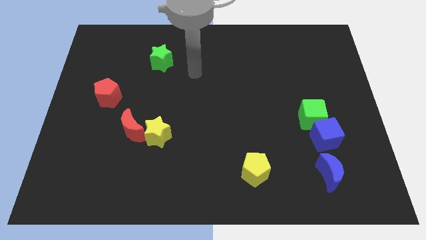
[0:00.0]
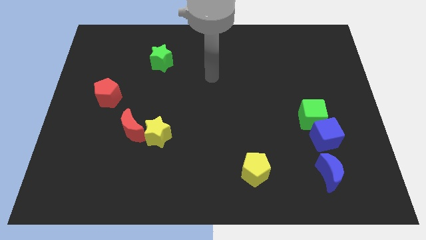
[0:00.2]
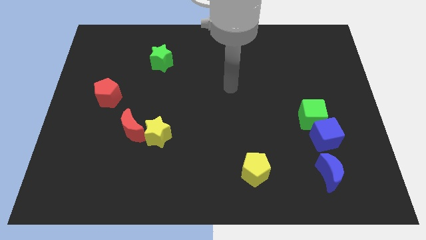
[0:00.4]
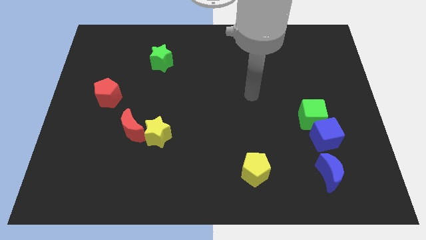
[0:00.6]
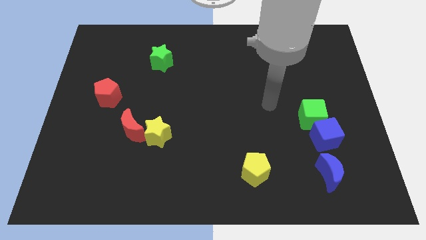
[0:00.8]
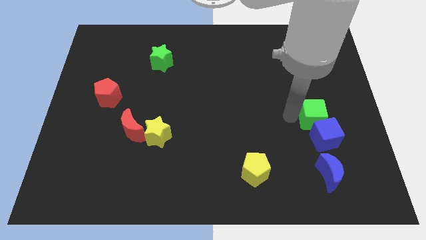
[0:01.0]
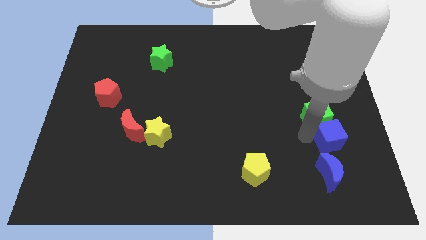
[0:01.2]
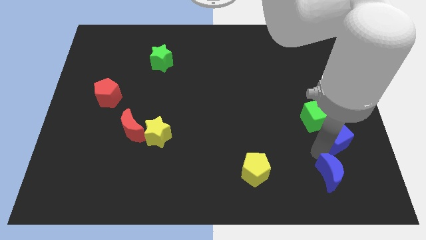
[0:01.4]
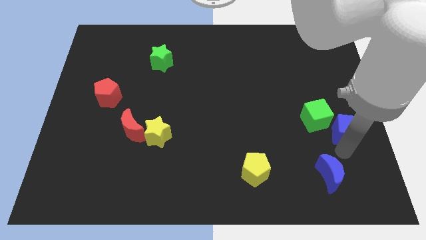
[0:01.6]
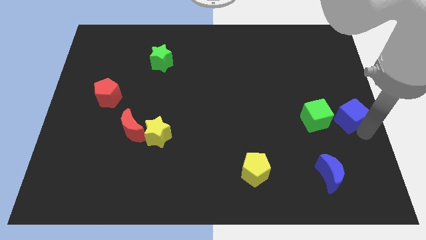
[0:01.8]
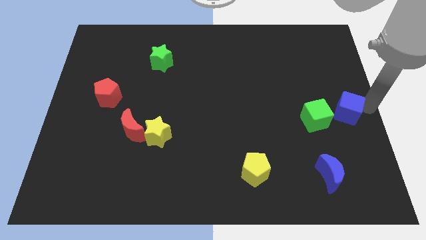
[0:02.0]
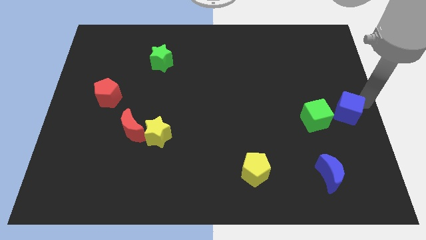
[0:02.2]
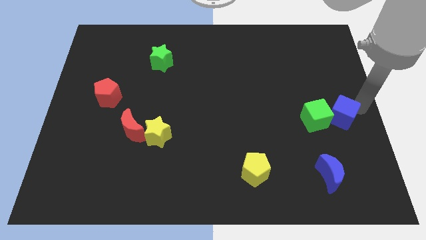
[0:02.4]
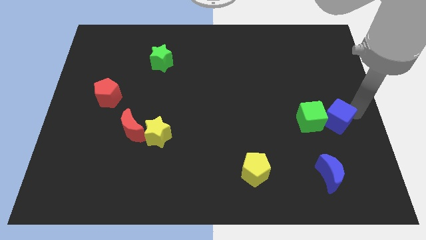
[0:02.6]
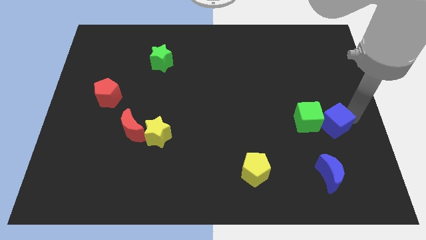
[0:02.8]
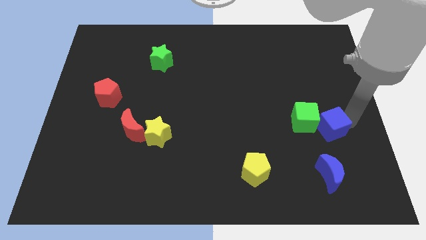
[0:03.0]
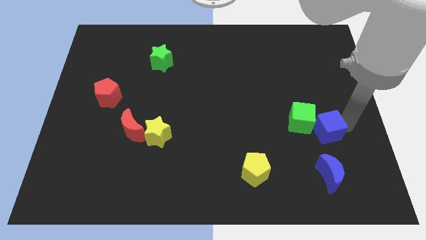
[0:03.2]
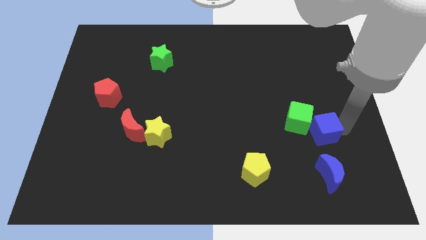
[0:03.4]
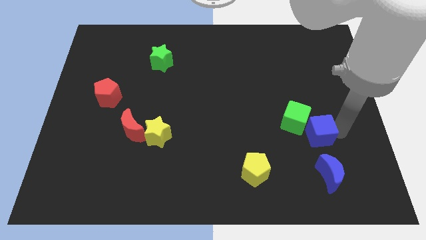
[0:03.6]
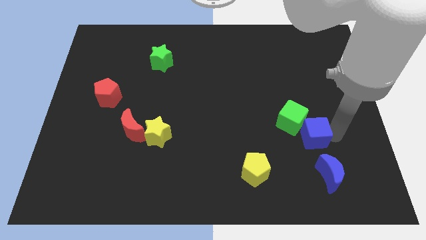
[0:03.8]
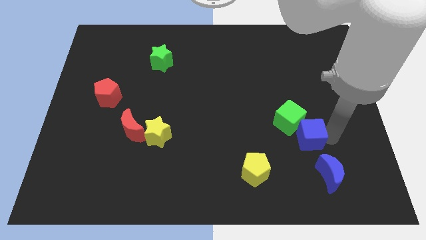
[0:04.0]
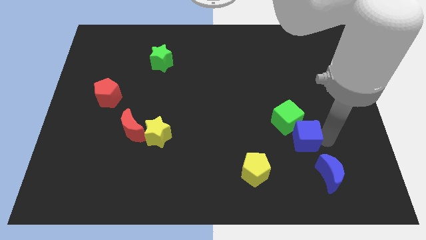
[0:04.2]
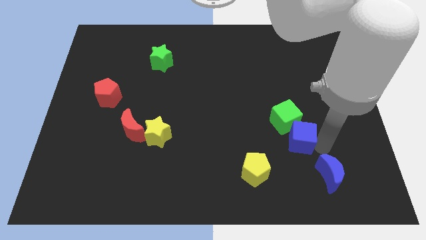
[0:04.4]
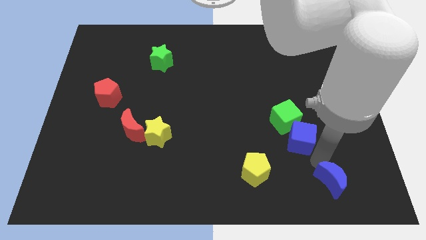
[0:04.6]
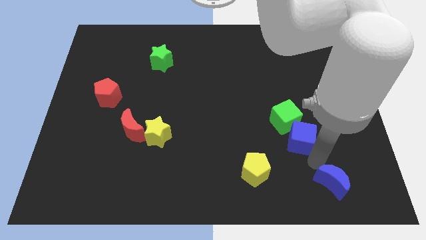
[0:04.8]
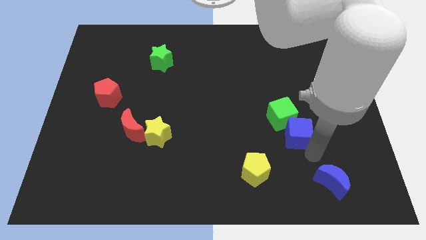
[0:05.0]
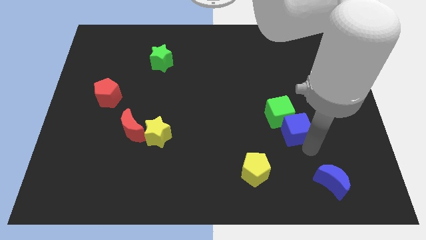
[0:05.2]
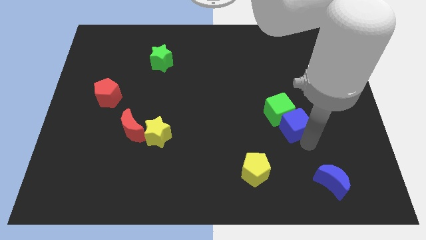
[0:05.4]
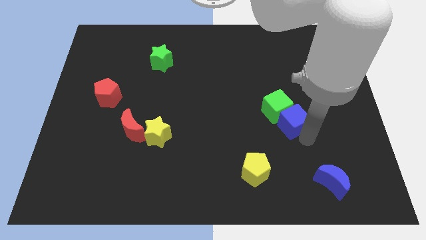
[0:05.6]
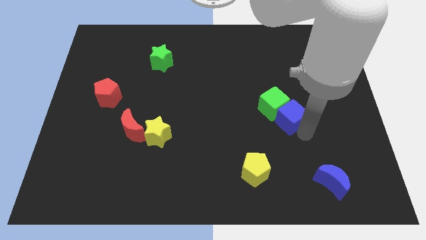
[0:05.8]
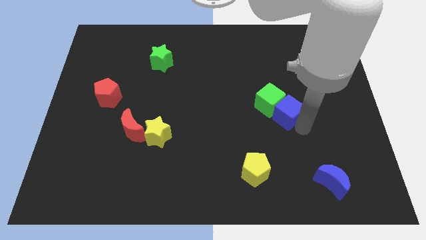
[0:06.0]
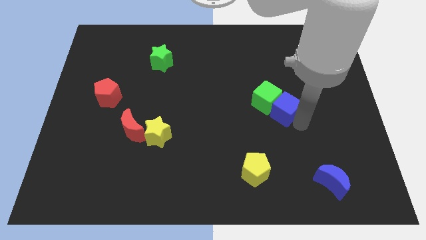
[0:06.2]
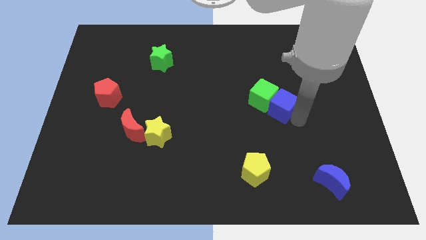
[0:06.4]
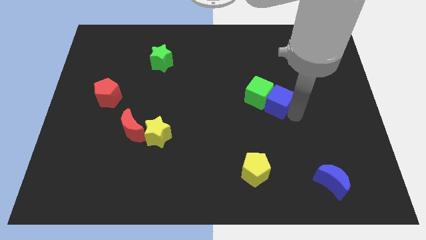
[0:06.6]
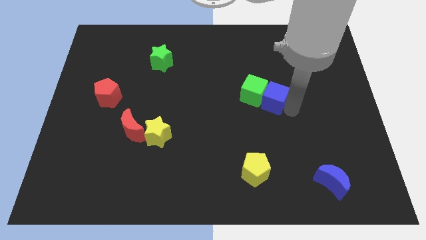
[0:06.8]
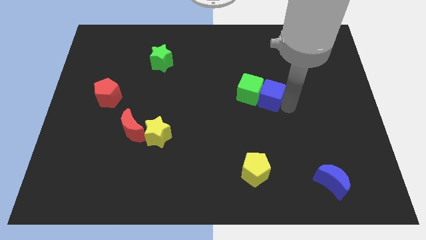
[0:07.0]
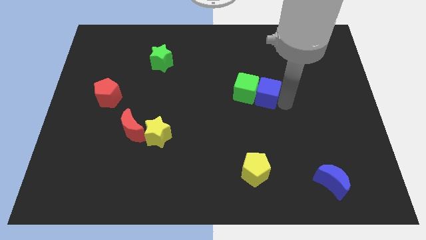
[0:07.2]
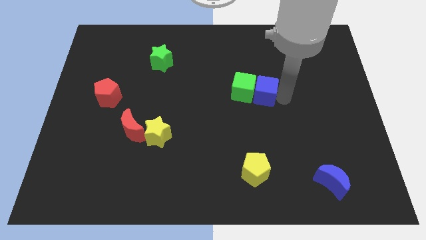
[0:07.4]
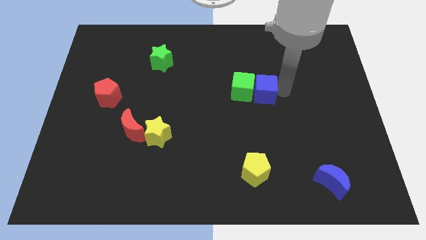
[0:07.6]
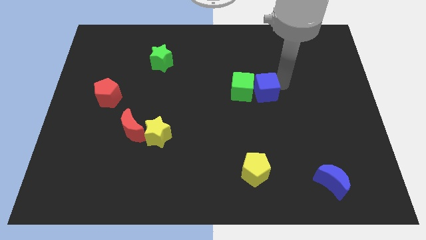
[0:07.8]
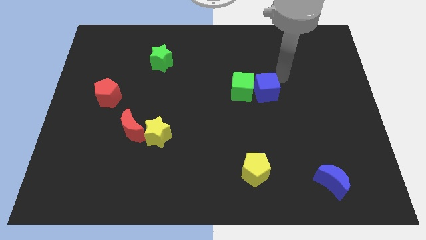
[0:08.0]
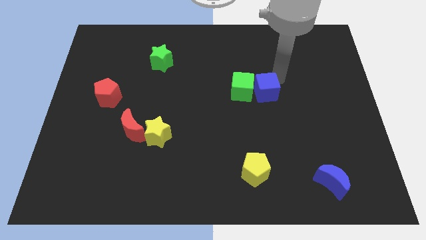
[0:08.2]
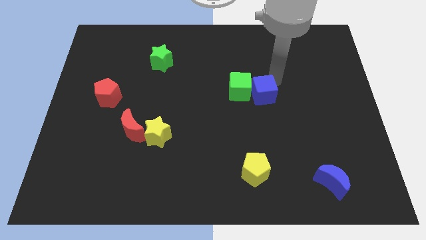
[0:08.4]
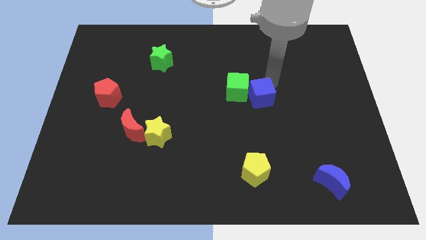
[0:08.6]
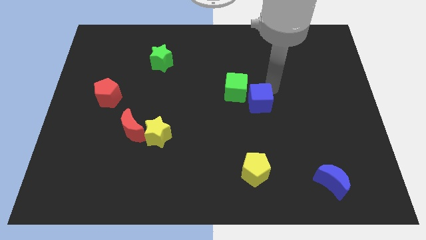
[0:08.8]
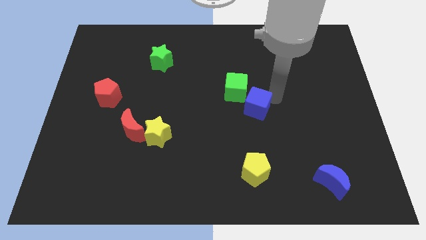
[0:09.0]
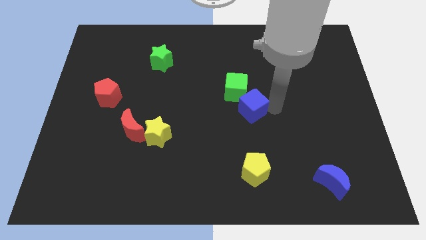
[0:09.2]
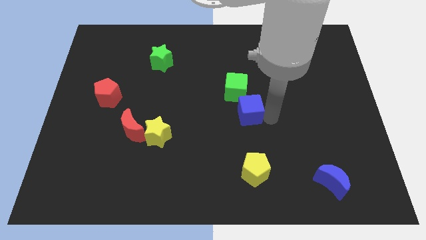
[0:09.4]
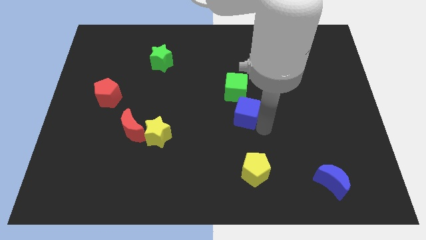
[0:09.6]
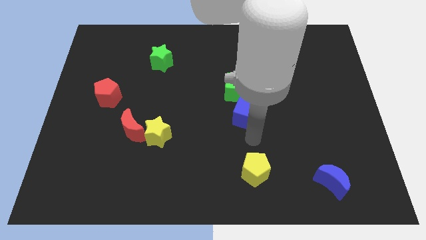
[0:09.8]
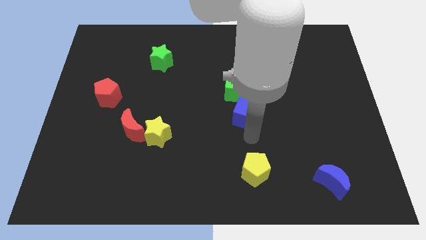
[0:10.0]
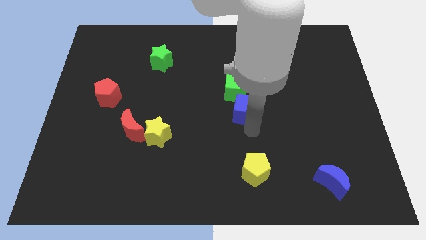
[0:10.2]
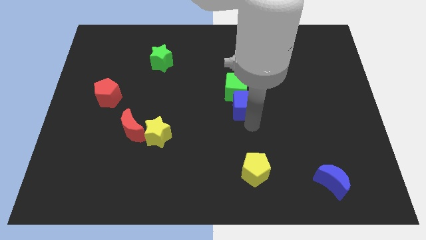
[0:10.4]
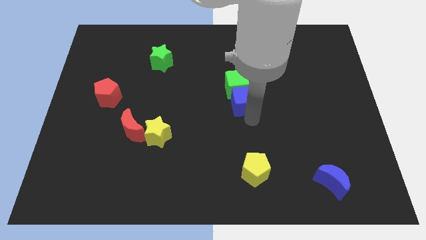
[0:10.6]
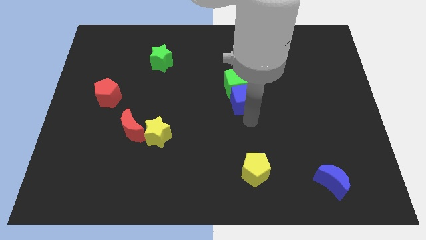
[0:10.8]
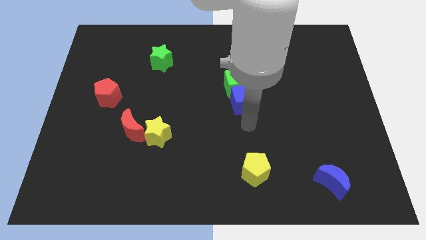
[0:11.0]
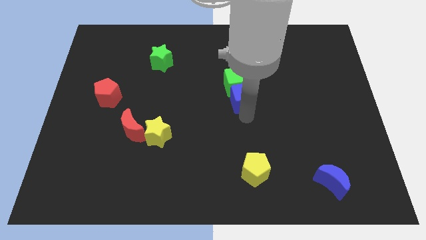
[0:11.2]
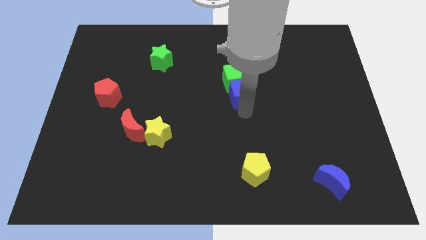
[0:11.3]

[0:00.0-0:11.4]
slide the blue cube up and left diagonally

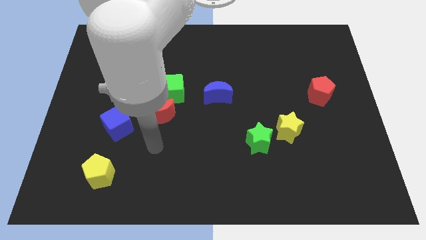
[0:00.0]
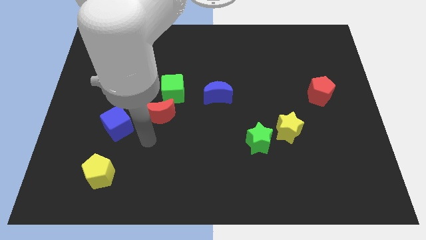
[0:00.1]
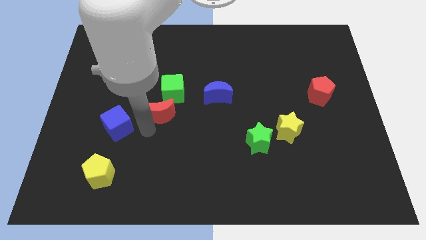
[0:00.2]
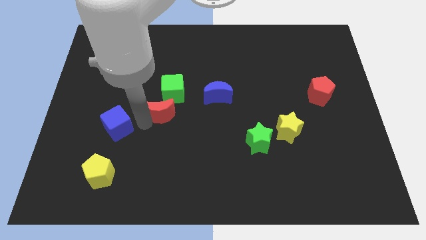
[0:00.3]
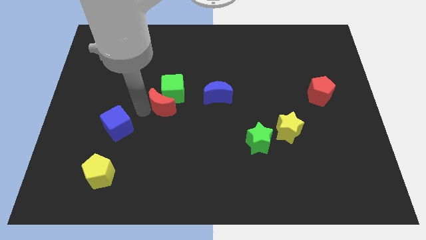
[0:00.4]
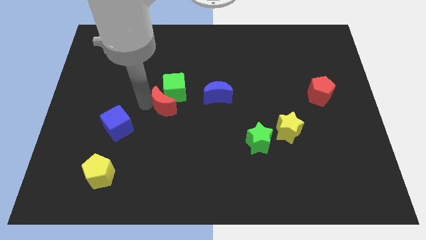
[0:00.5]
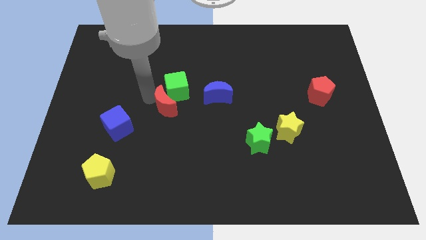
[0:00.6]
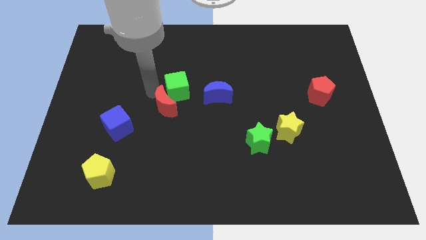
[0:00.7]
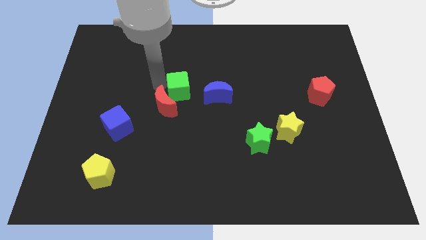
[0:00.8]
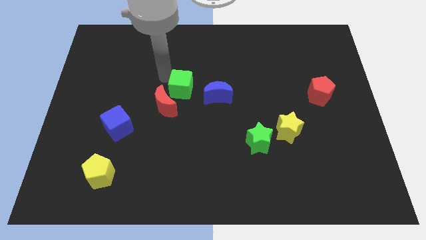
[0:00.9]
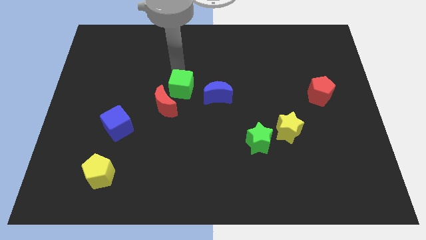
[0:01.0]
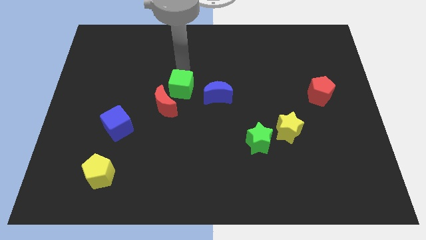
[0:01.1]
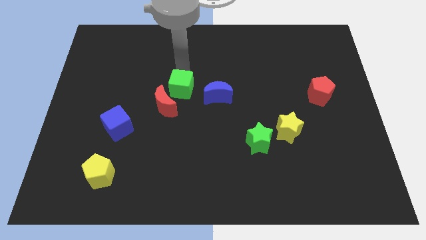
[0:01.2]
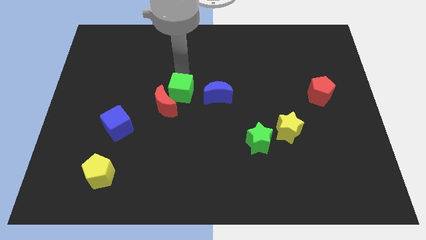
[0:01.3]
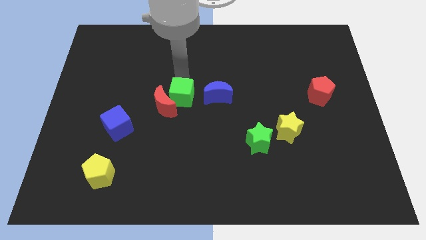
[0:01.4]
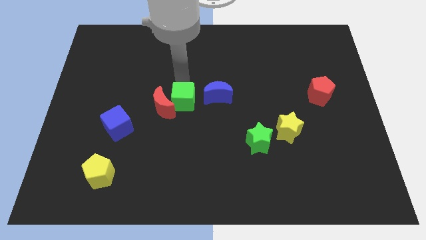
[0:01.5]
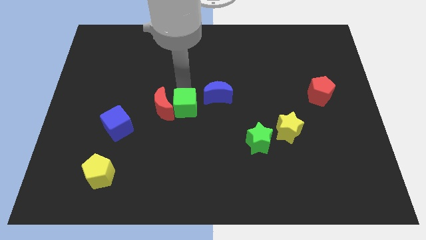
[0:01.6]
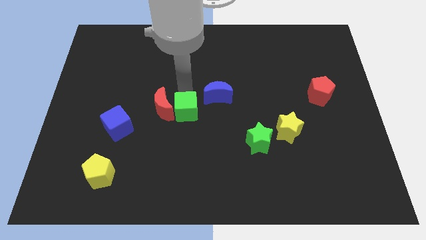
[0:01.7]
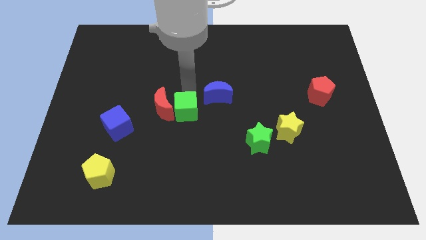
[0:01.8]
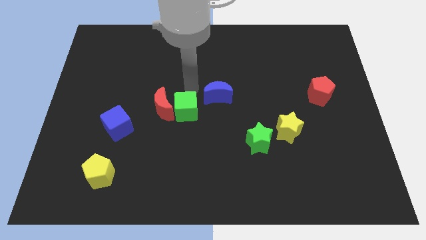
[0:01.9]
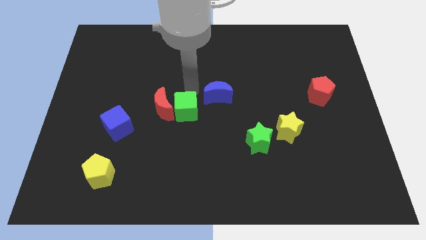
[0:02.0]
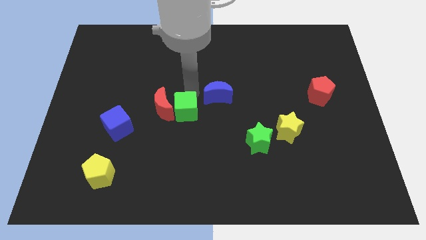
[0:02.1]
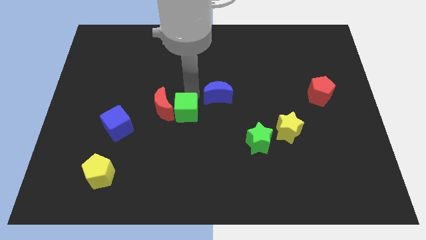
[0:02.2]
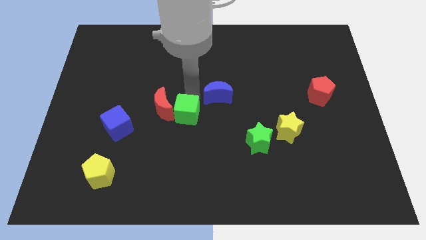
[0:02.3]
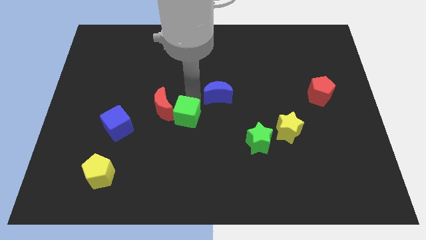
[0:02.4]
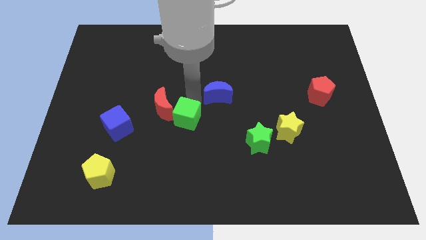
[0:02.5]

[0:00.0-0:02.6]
slightly slide the green cube downwards
